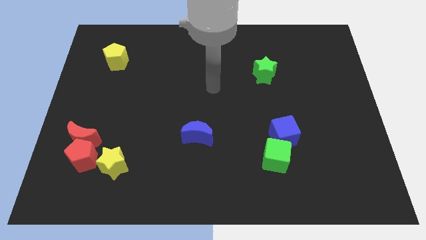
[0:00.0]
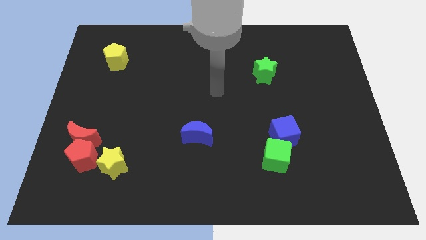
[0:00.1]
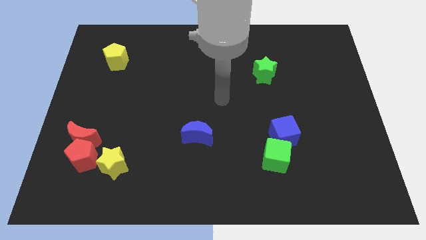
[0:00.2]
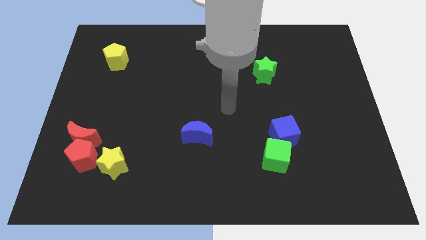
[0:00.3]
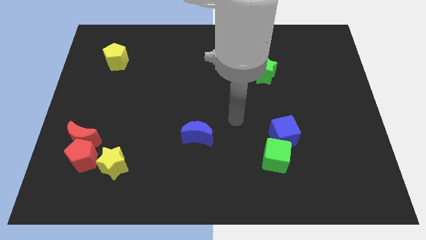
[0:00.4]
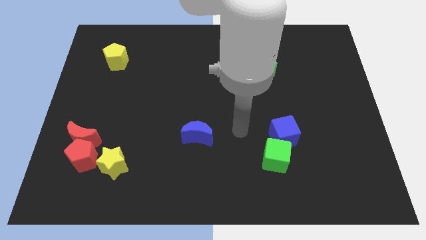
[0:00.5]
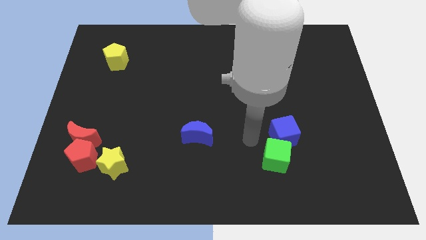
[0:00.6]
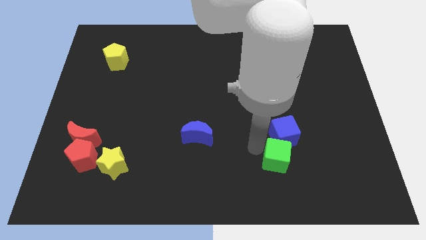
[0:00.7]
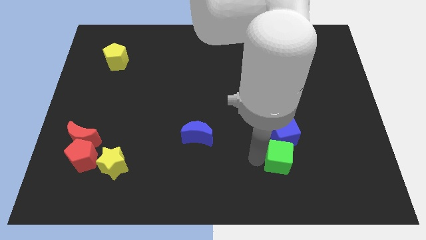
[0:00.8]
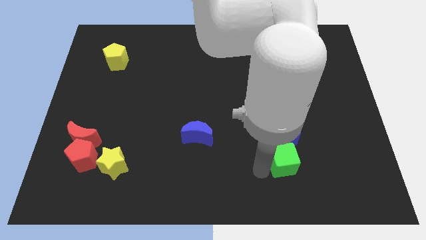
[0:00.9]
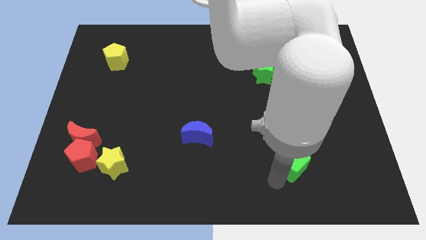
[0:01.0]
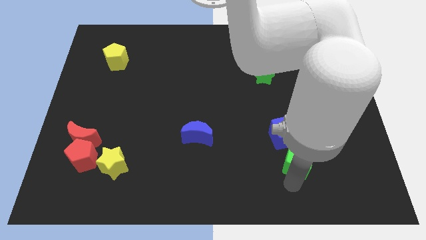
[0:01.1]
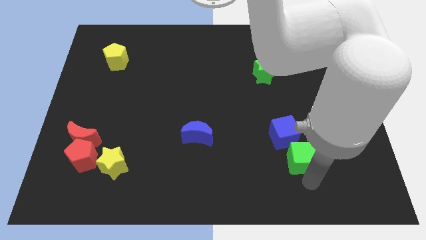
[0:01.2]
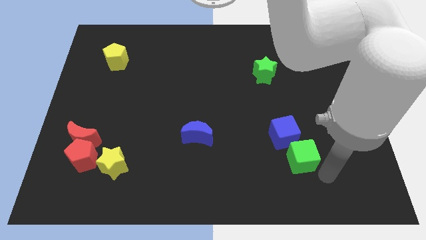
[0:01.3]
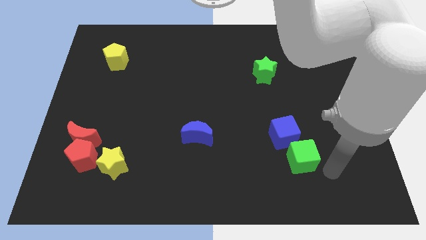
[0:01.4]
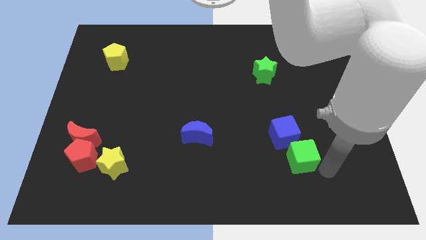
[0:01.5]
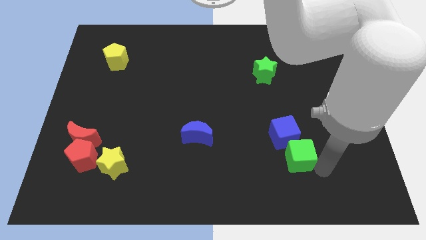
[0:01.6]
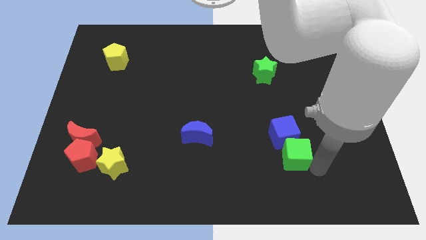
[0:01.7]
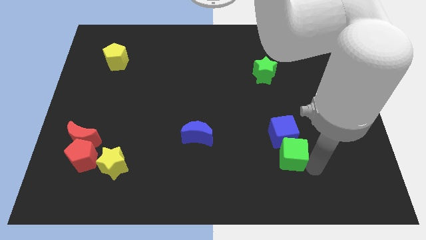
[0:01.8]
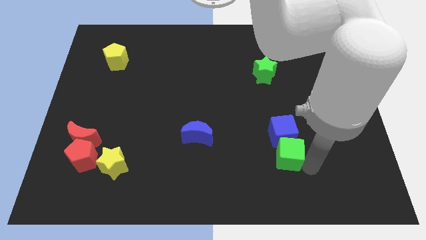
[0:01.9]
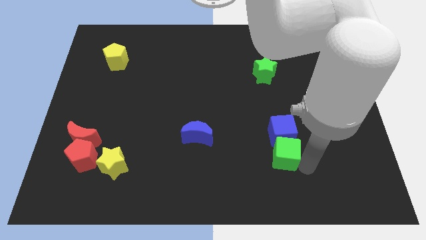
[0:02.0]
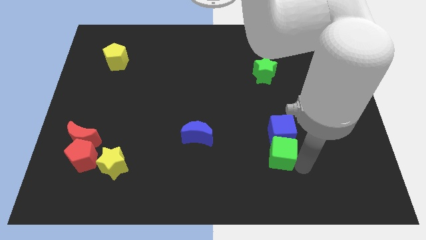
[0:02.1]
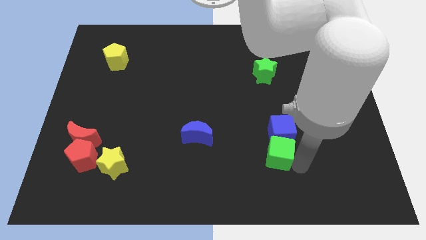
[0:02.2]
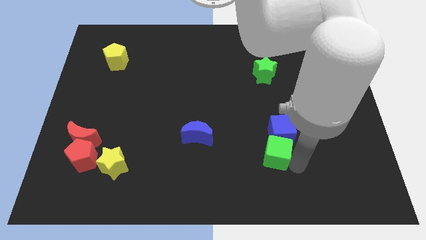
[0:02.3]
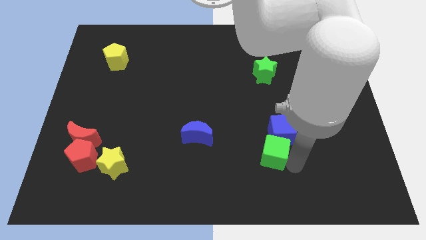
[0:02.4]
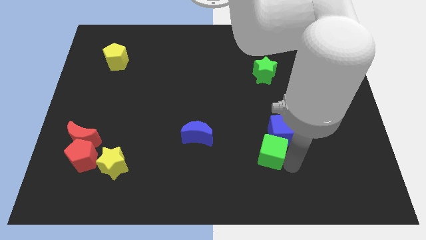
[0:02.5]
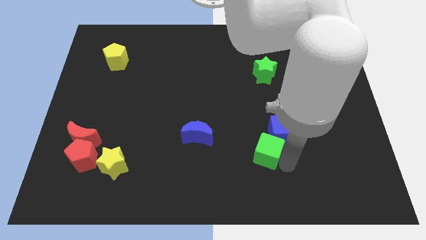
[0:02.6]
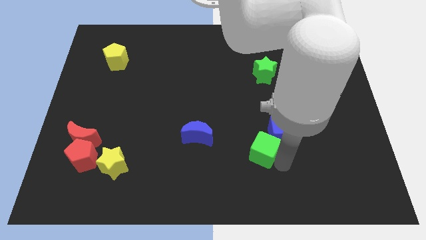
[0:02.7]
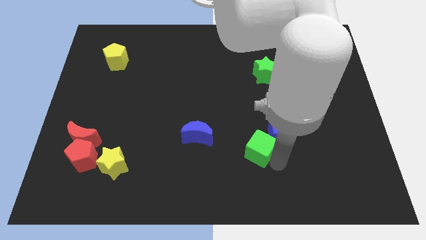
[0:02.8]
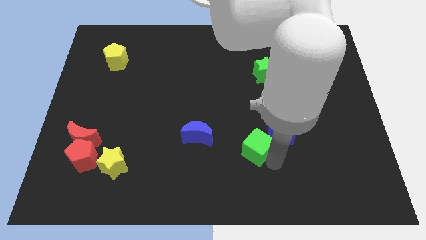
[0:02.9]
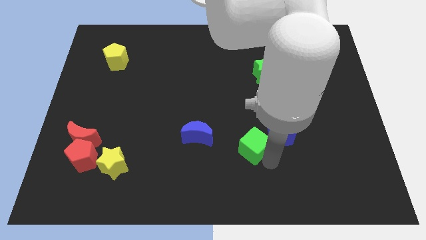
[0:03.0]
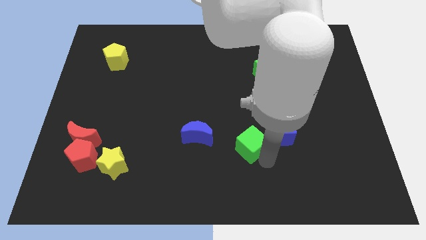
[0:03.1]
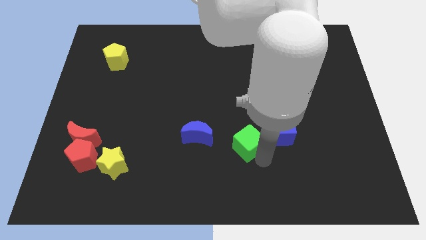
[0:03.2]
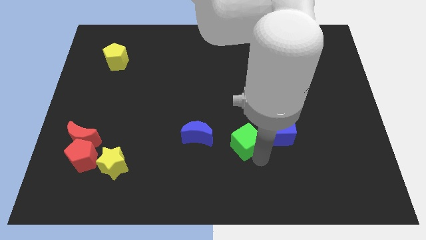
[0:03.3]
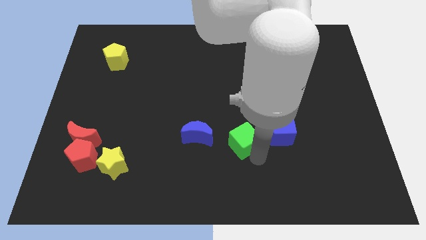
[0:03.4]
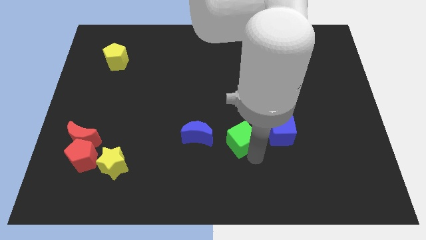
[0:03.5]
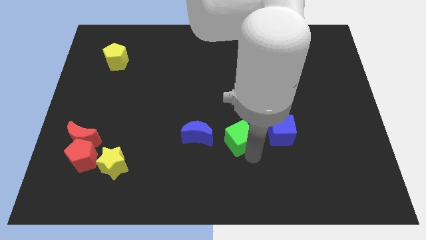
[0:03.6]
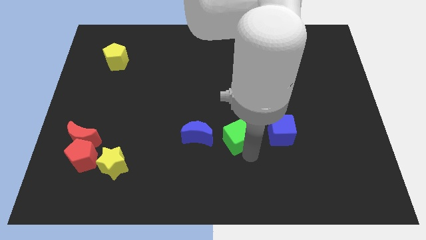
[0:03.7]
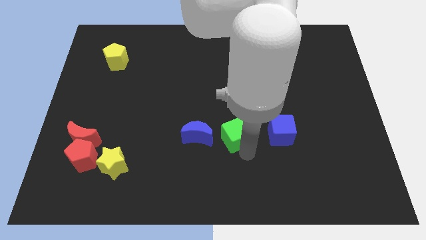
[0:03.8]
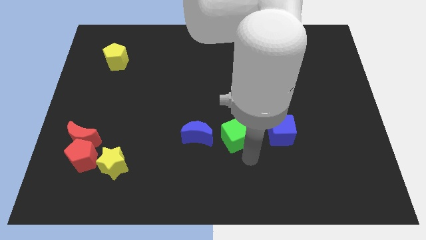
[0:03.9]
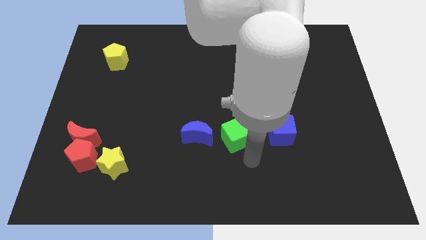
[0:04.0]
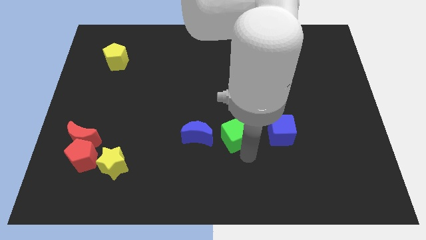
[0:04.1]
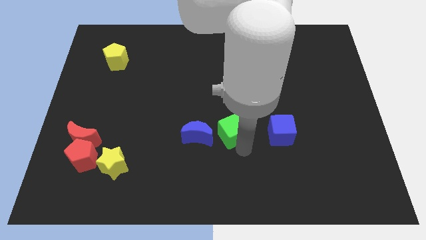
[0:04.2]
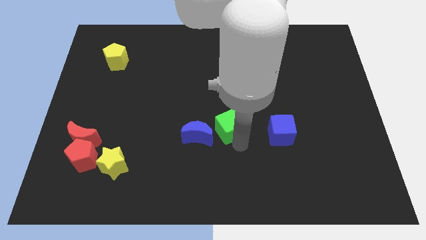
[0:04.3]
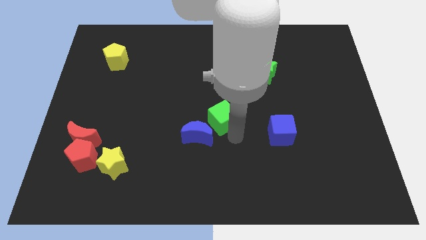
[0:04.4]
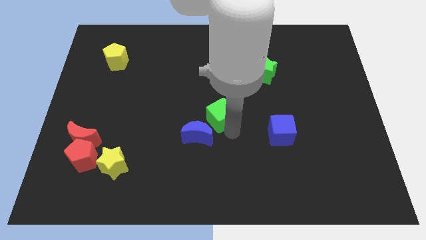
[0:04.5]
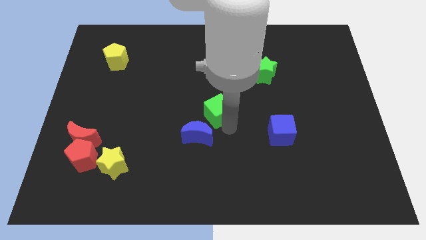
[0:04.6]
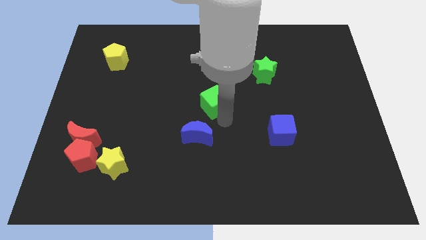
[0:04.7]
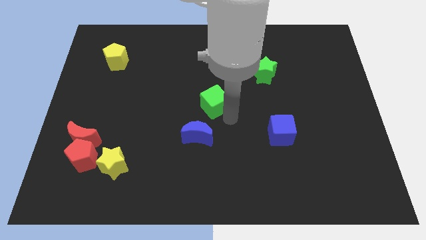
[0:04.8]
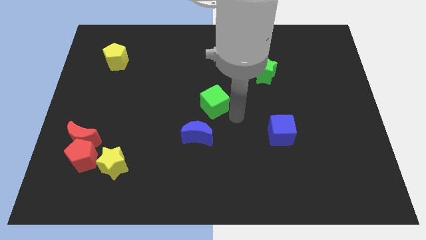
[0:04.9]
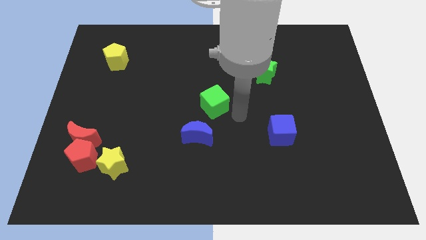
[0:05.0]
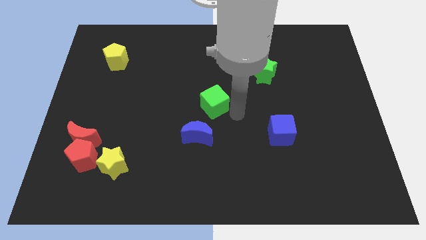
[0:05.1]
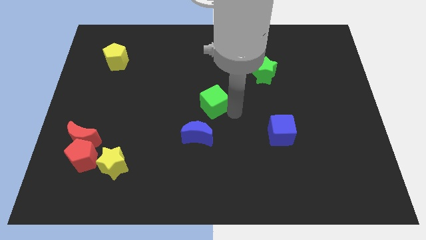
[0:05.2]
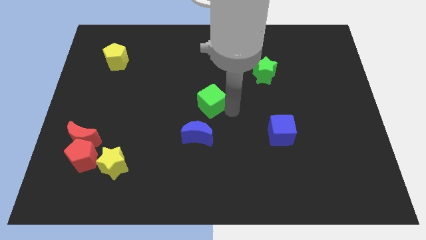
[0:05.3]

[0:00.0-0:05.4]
move the green cube upwards and then left

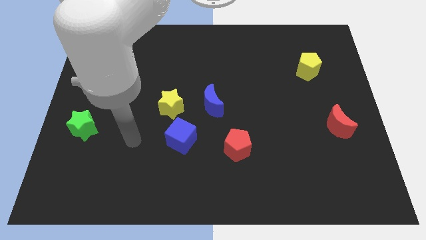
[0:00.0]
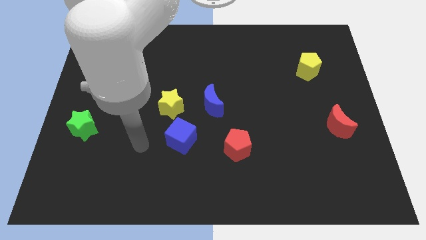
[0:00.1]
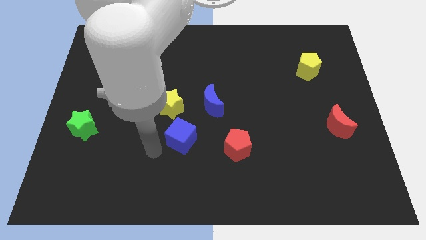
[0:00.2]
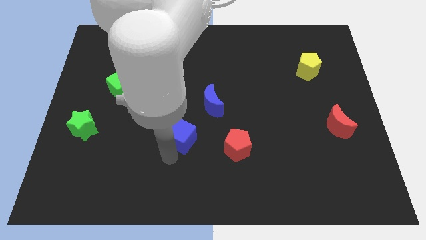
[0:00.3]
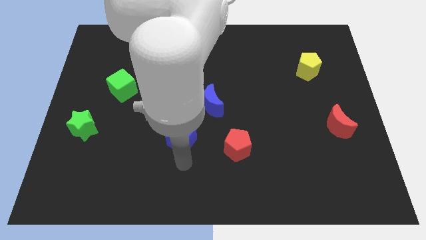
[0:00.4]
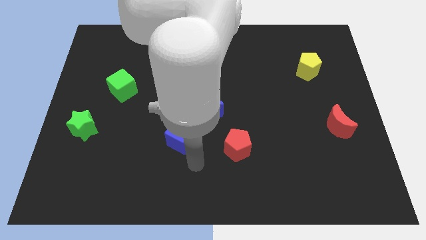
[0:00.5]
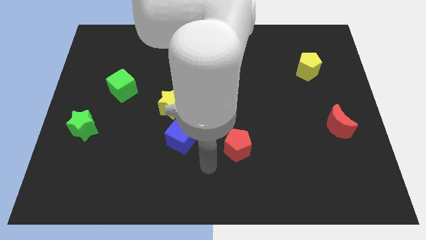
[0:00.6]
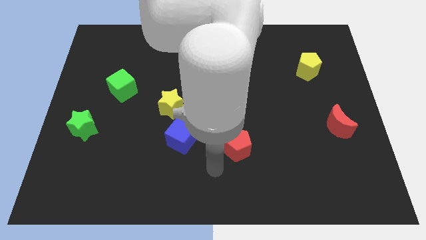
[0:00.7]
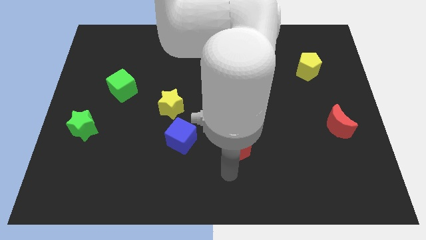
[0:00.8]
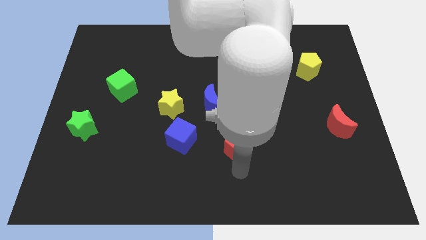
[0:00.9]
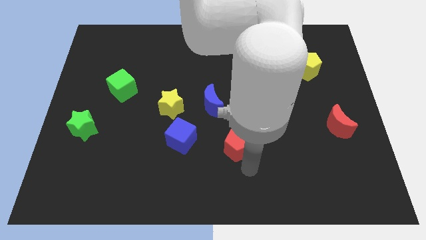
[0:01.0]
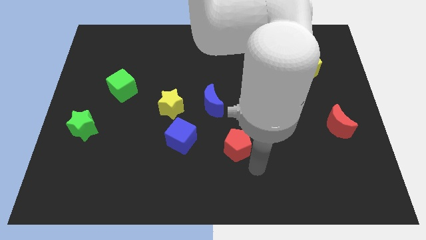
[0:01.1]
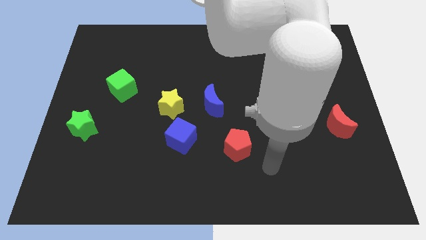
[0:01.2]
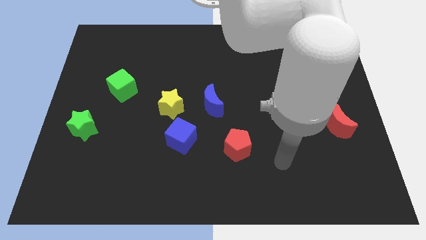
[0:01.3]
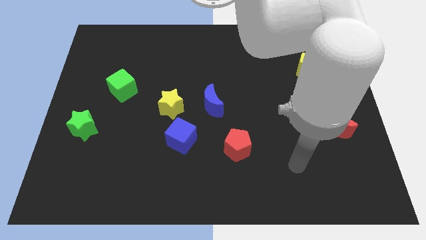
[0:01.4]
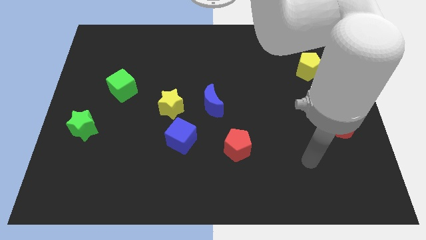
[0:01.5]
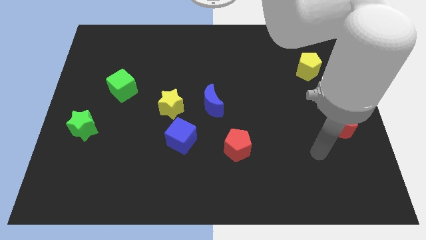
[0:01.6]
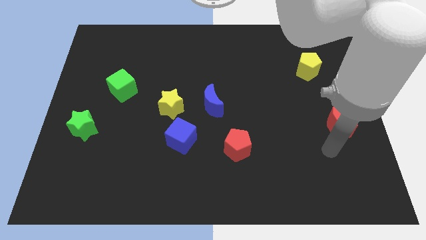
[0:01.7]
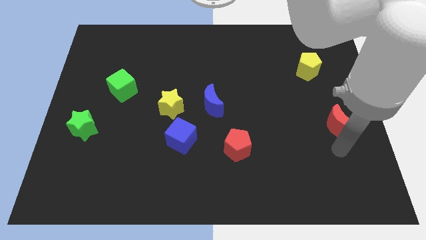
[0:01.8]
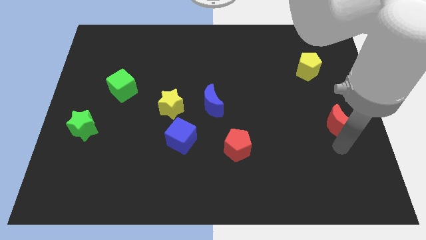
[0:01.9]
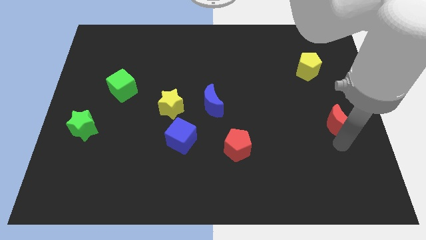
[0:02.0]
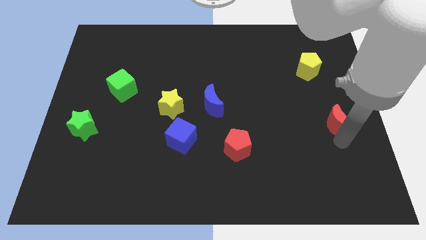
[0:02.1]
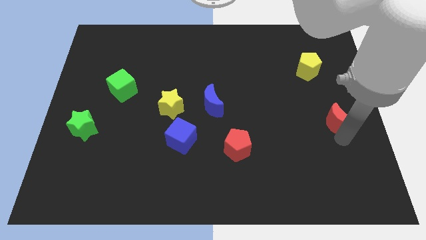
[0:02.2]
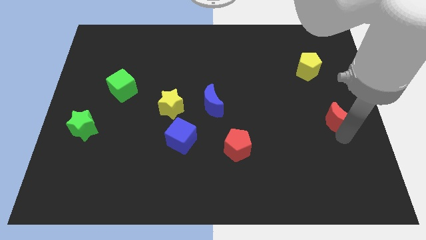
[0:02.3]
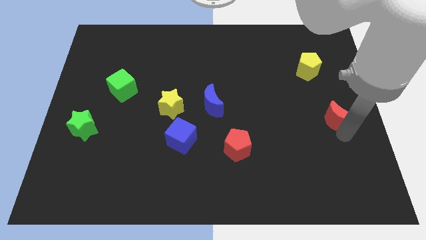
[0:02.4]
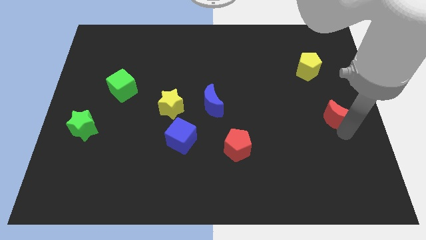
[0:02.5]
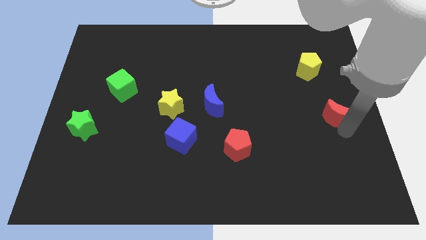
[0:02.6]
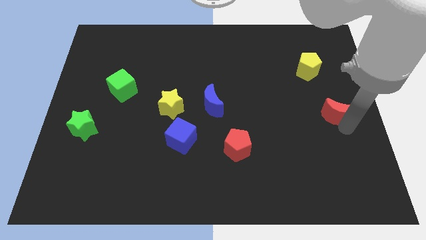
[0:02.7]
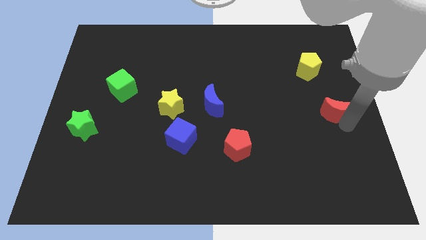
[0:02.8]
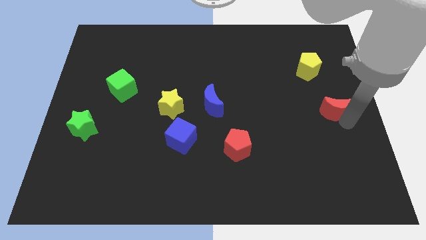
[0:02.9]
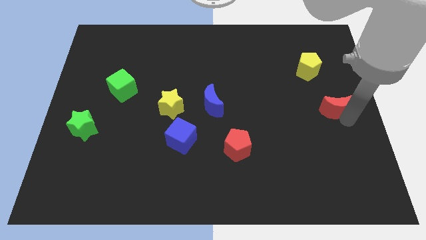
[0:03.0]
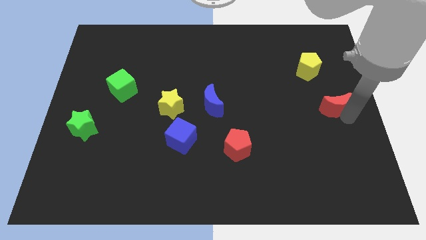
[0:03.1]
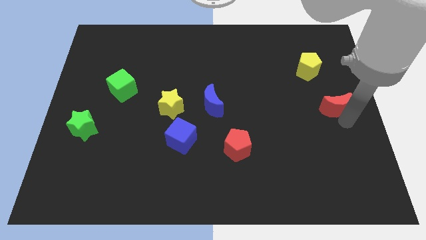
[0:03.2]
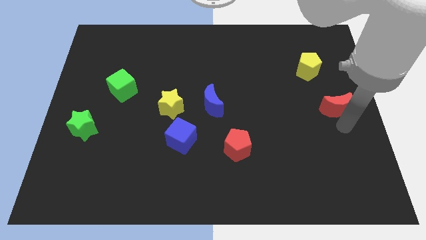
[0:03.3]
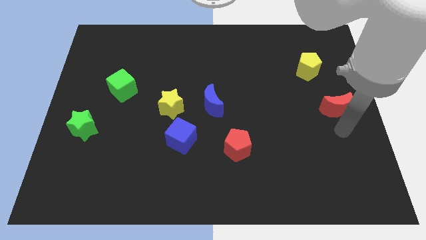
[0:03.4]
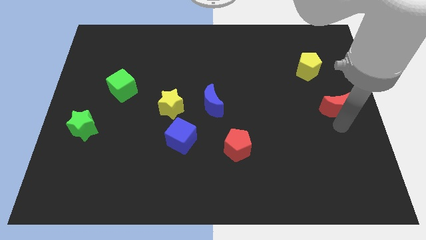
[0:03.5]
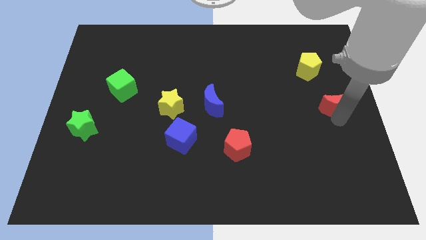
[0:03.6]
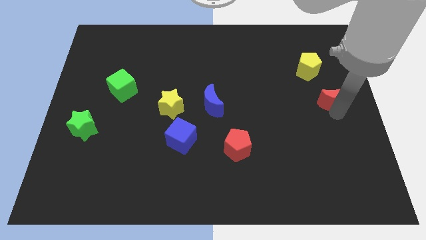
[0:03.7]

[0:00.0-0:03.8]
push the red moon up a bit
